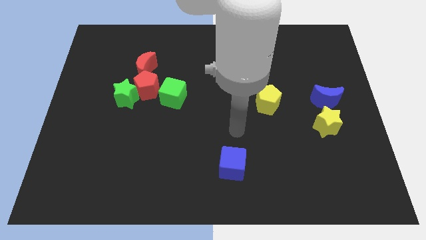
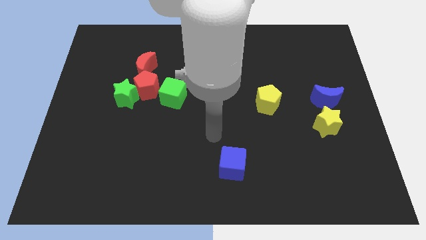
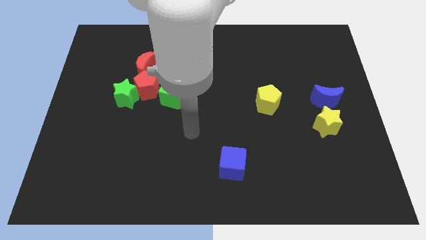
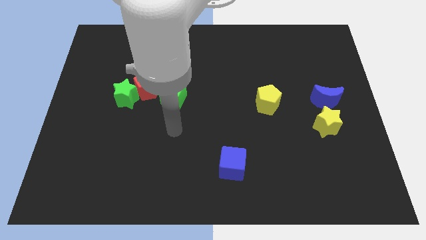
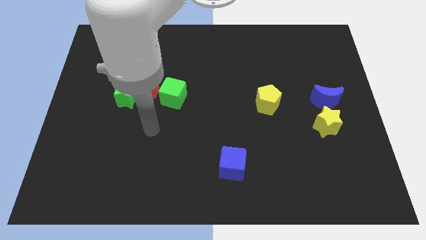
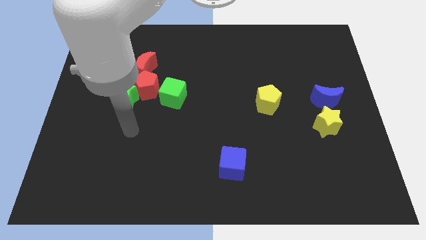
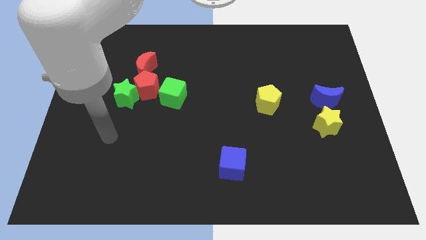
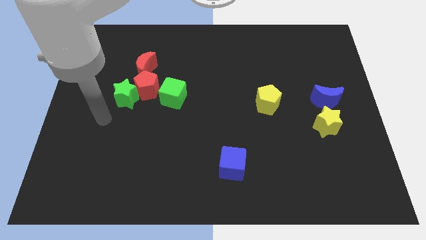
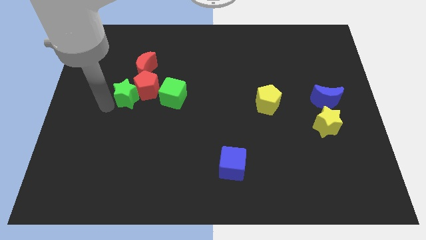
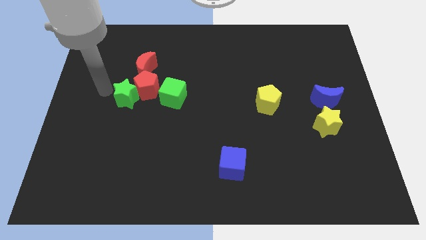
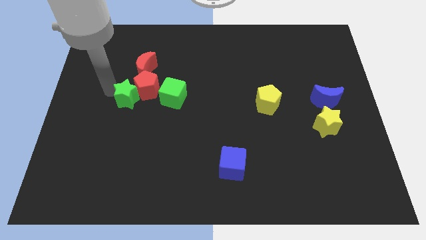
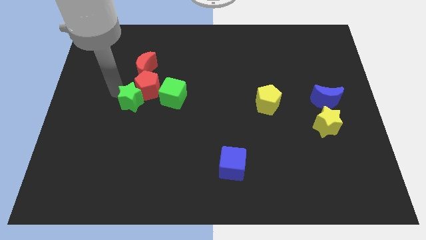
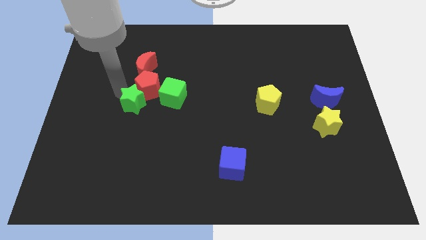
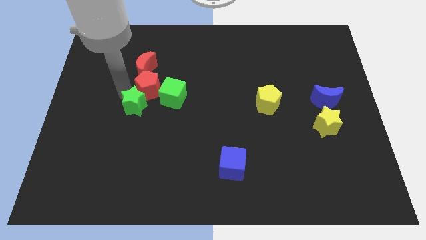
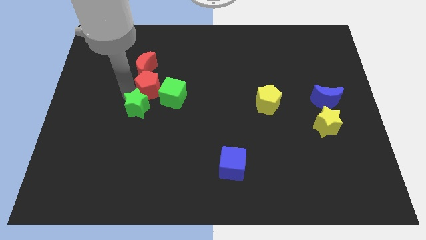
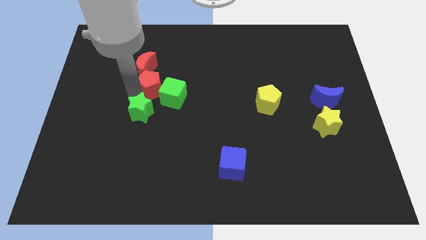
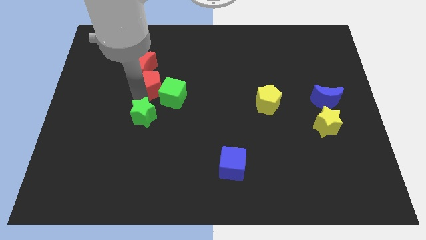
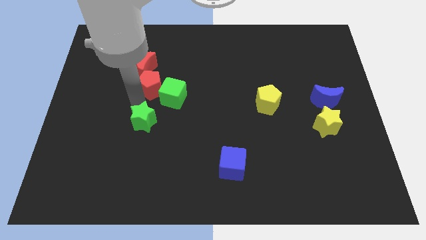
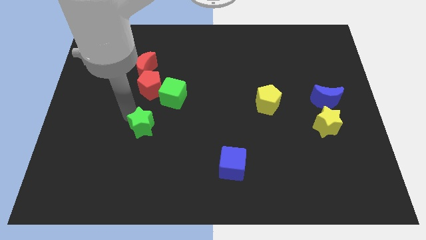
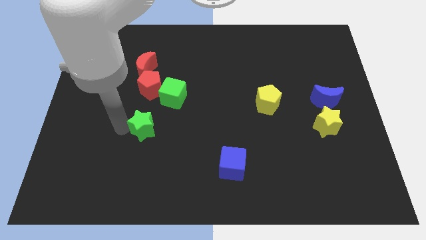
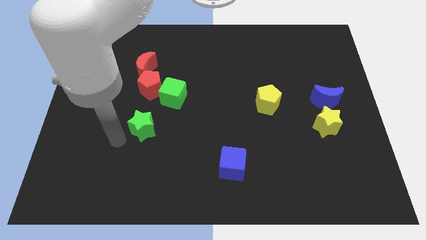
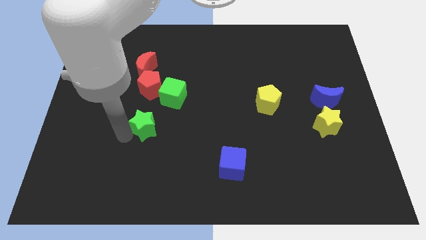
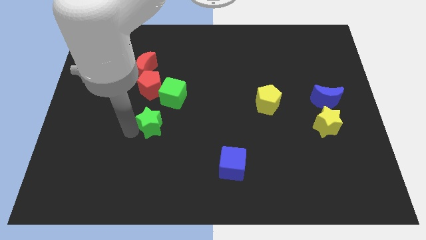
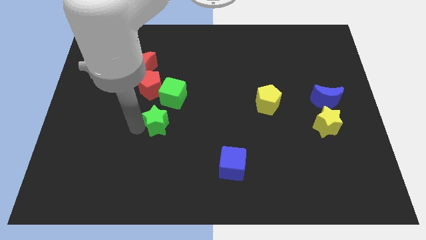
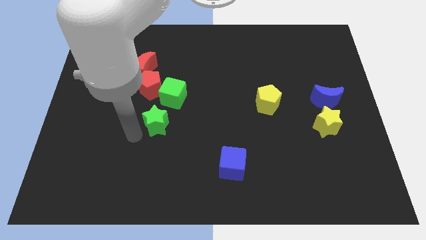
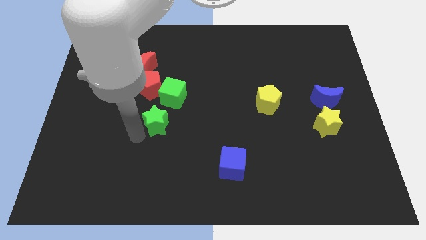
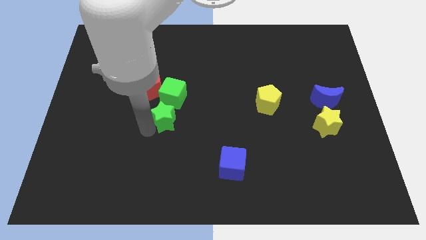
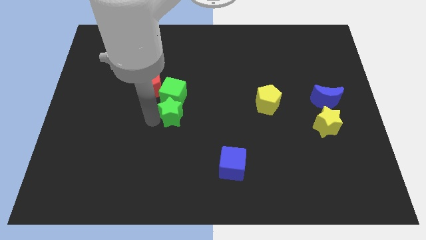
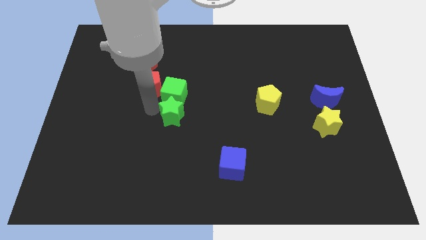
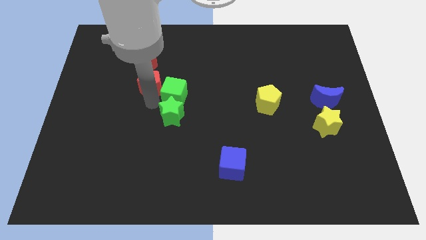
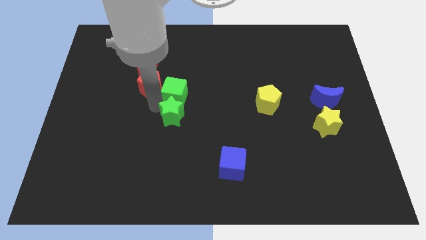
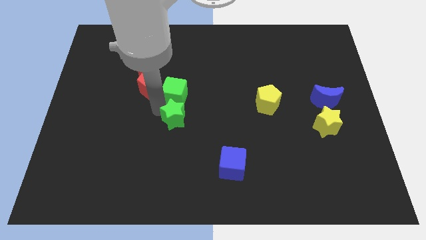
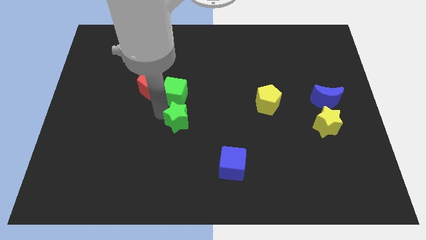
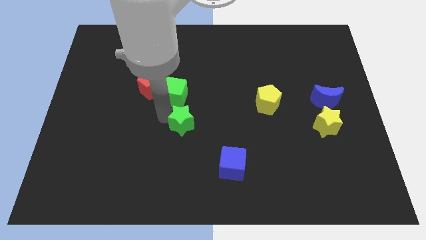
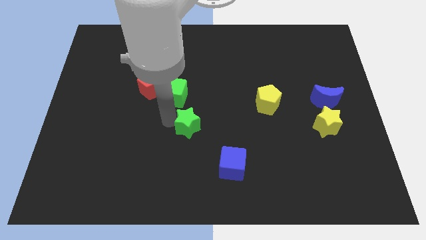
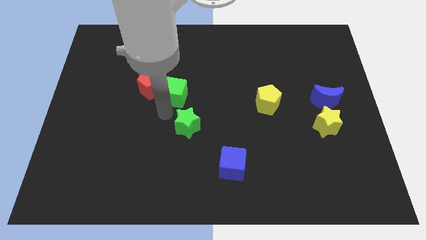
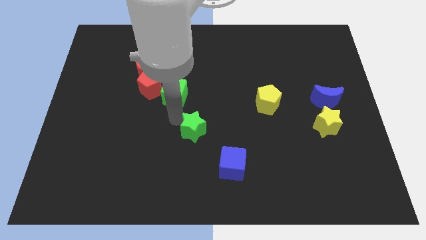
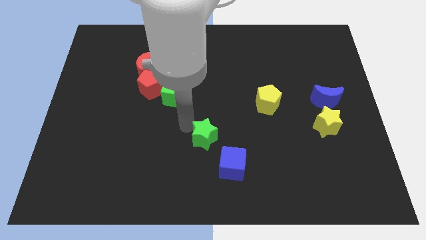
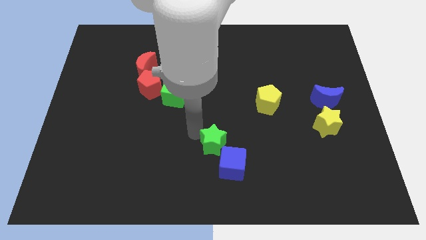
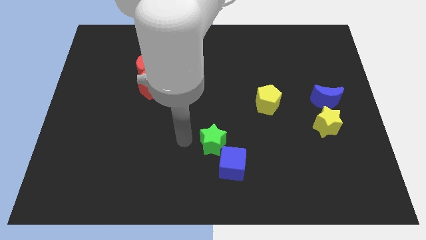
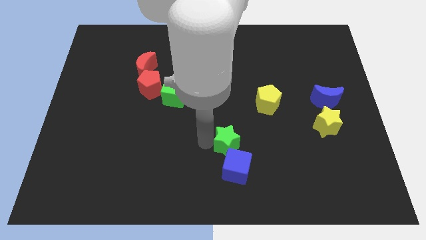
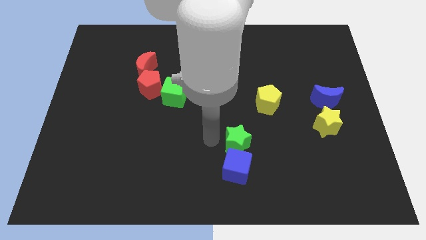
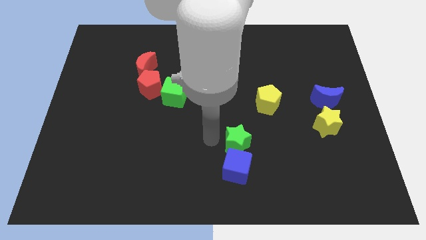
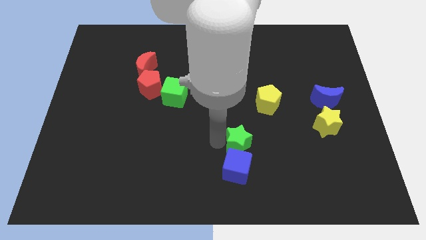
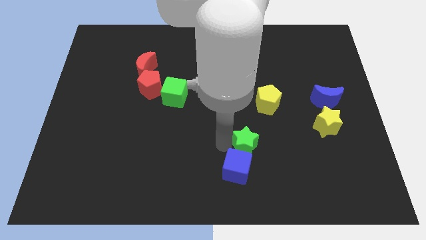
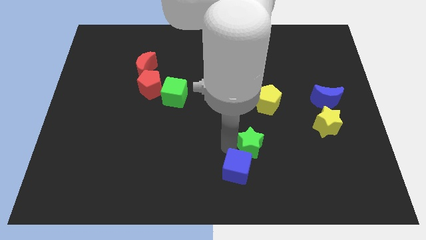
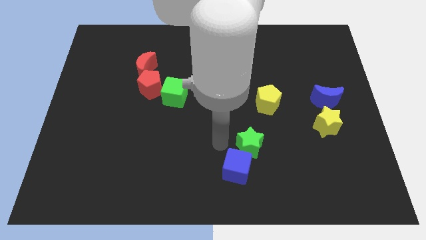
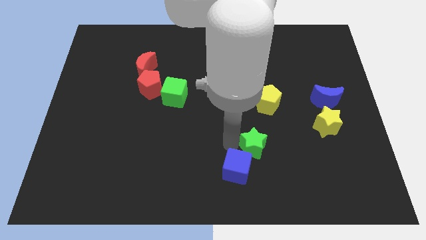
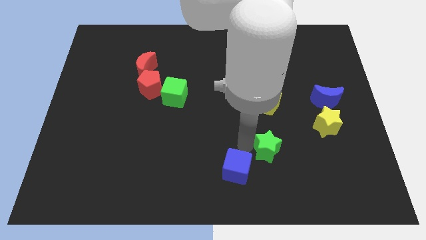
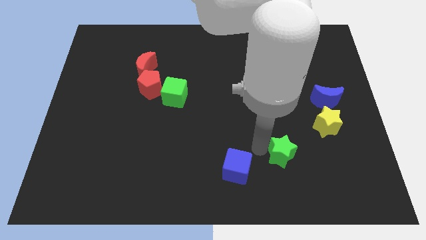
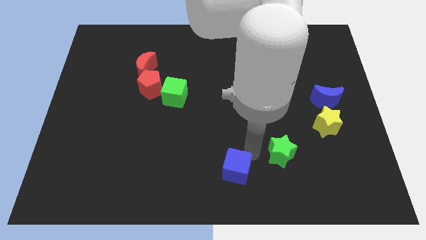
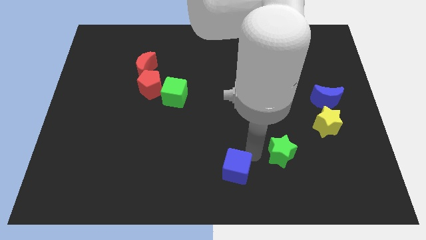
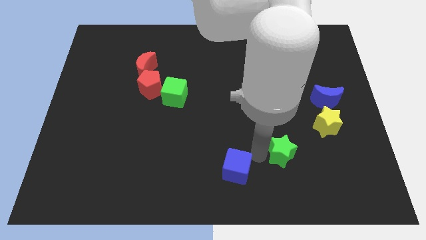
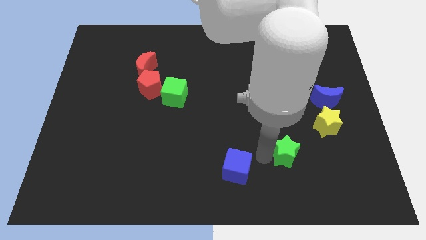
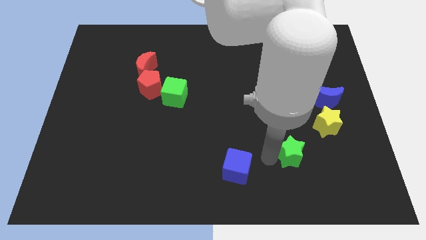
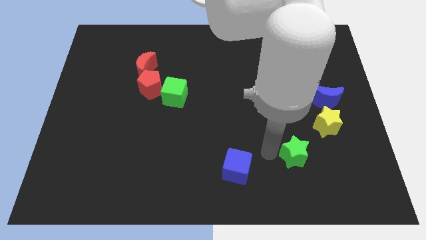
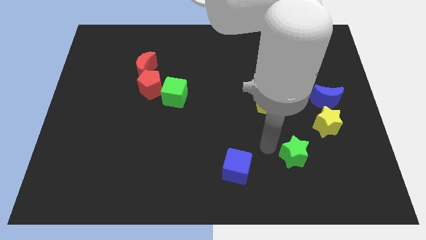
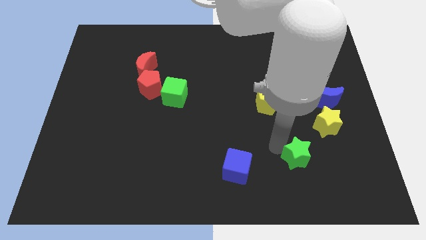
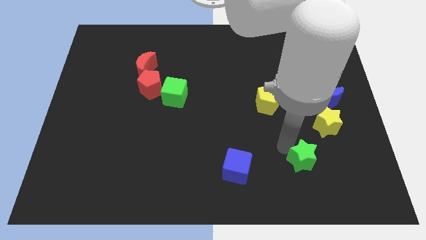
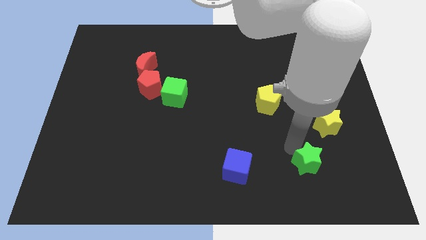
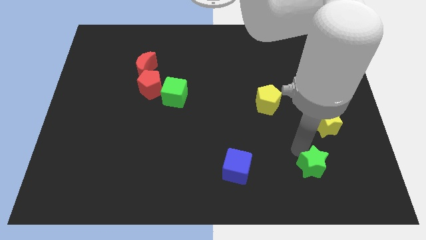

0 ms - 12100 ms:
move the green star to the bottom side of the yellow star

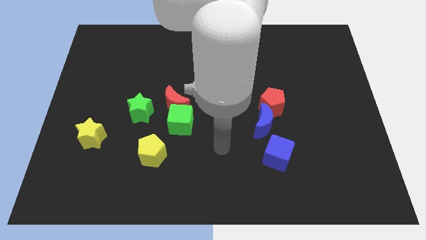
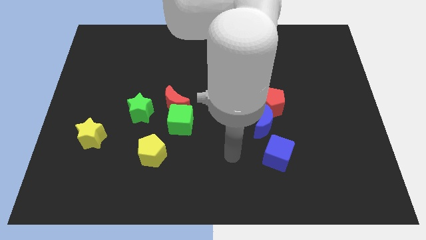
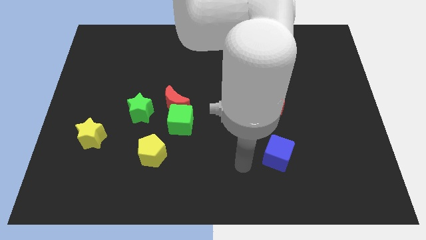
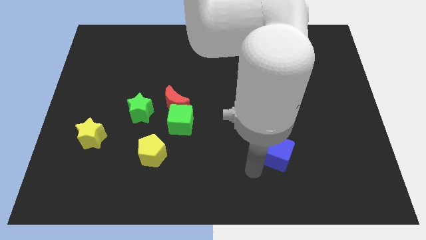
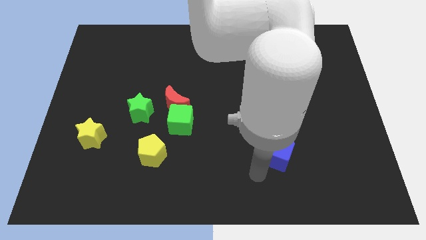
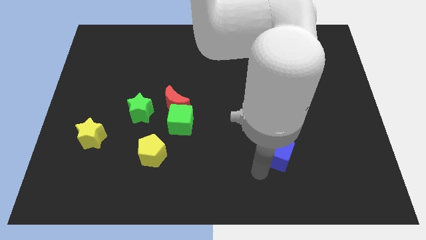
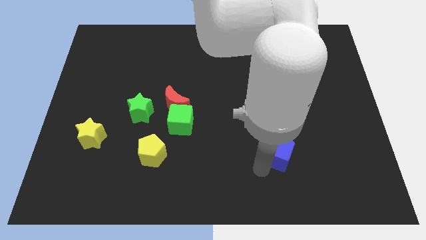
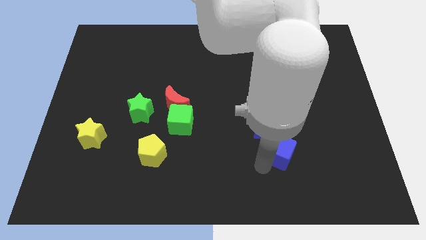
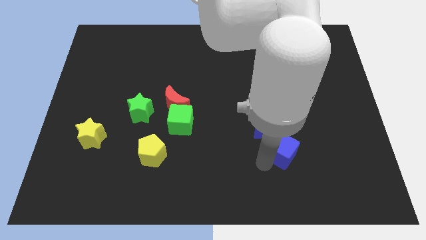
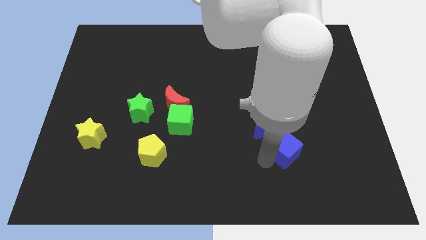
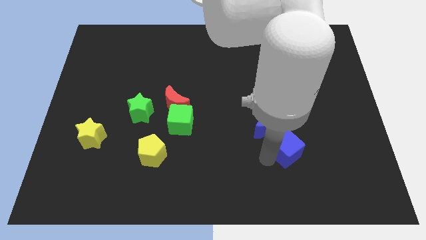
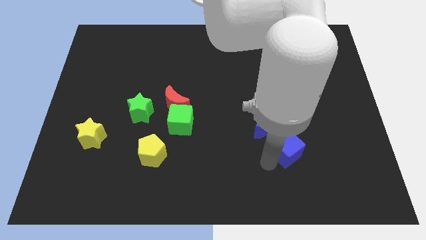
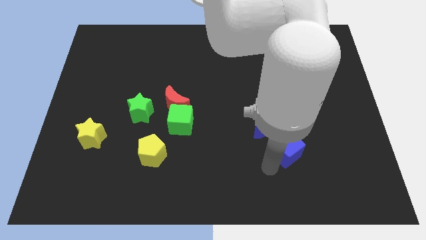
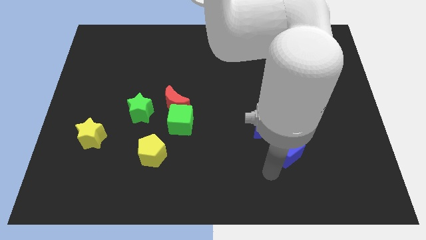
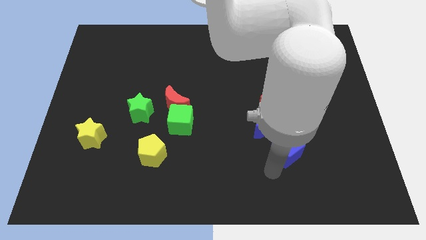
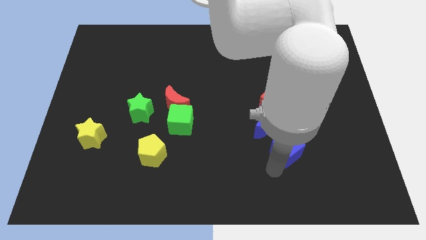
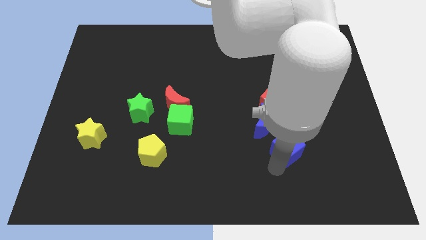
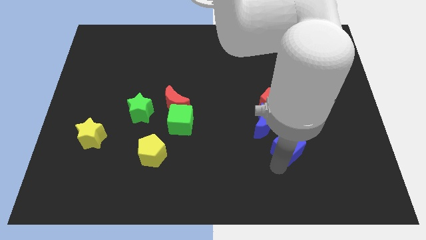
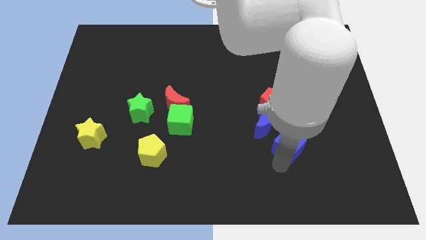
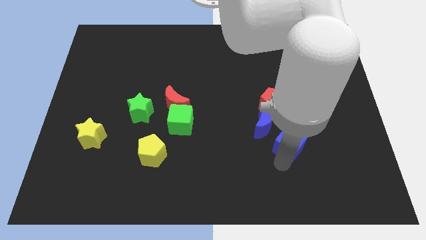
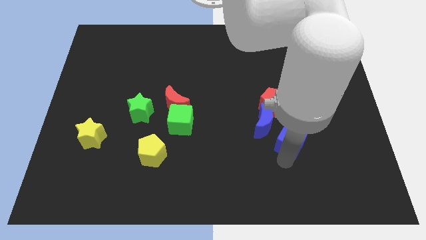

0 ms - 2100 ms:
move the blue cube to the right side of the blue moon
